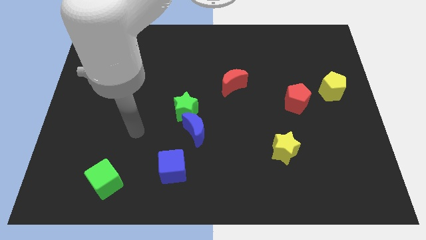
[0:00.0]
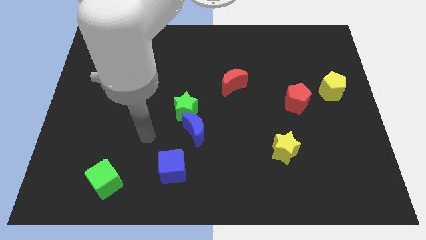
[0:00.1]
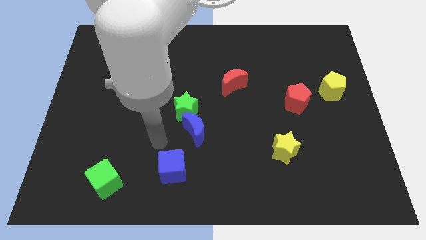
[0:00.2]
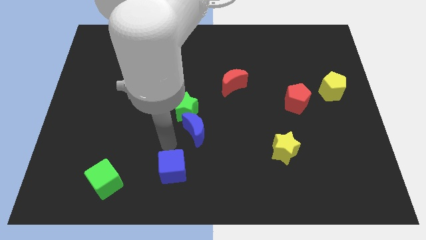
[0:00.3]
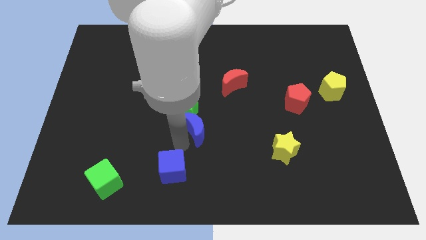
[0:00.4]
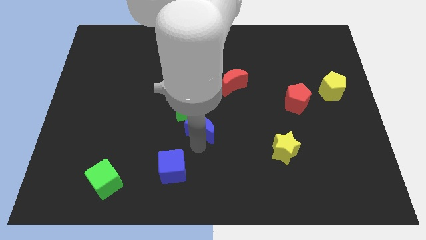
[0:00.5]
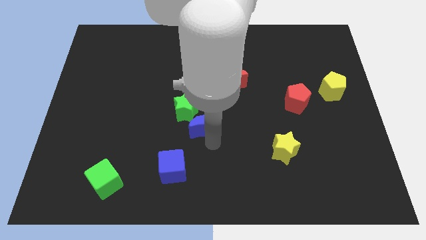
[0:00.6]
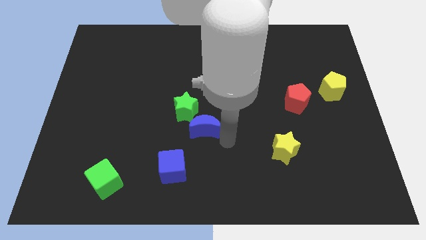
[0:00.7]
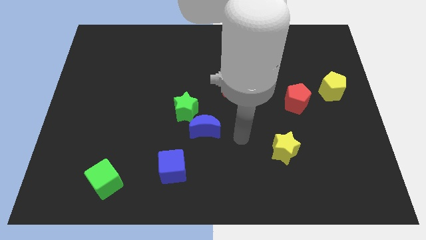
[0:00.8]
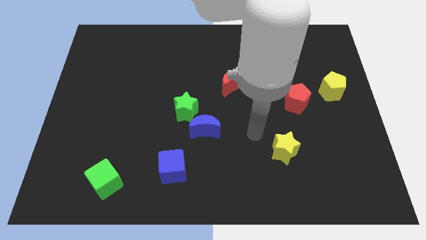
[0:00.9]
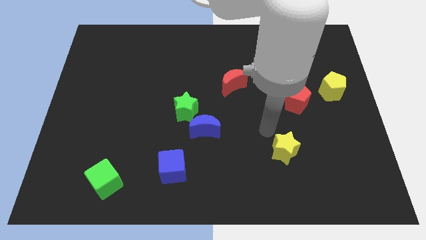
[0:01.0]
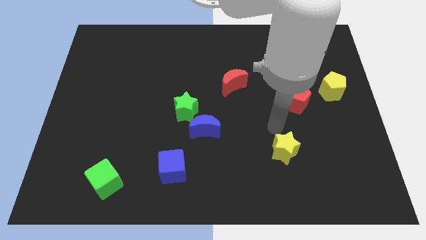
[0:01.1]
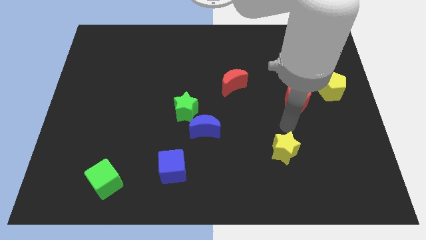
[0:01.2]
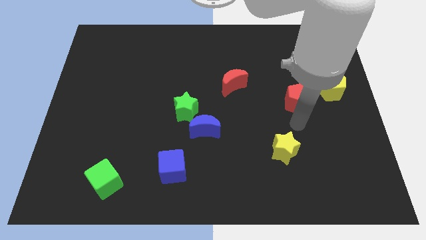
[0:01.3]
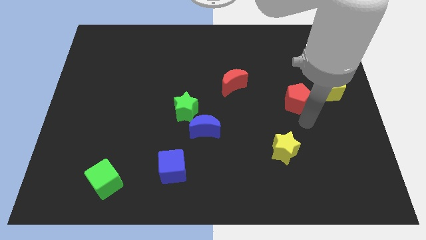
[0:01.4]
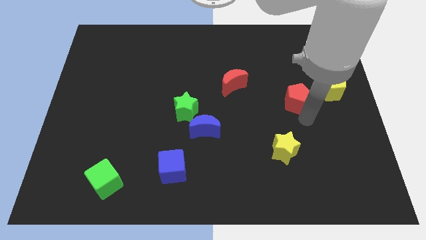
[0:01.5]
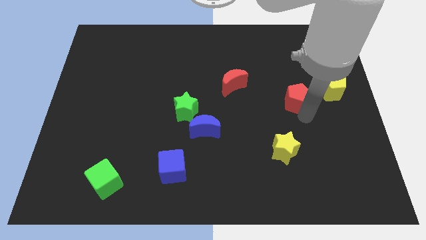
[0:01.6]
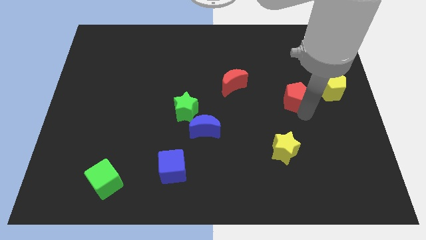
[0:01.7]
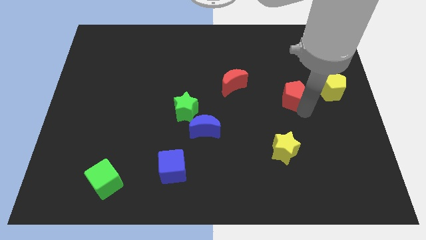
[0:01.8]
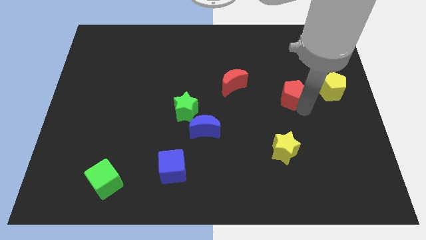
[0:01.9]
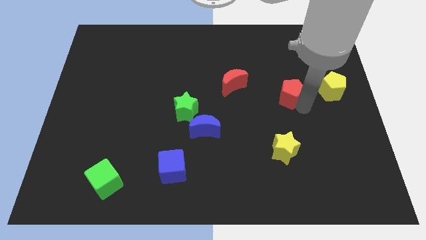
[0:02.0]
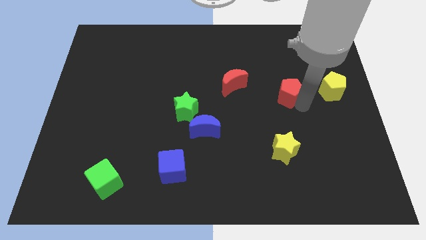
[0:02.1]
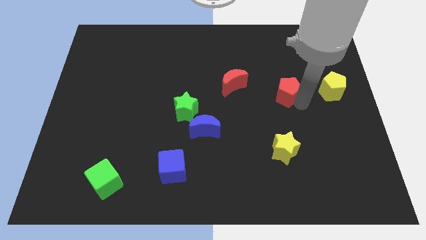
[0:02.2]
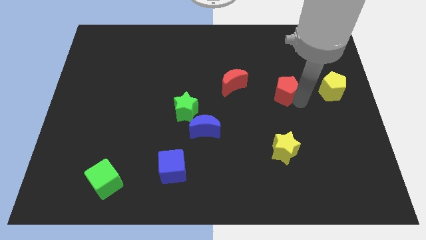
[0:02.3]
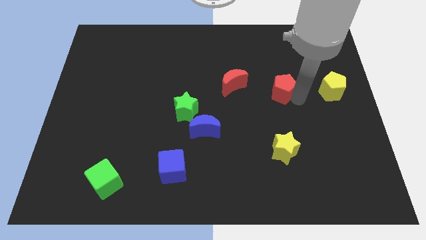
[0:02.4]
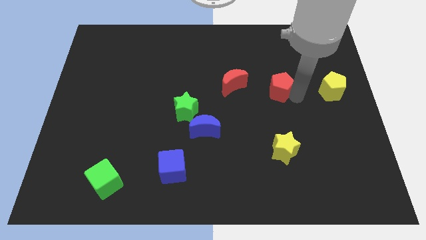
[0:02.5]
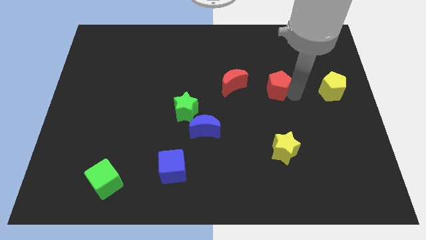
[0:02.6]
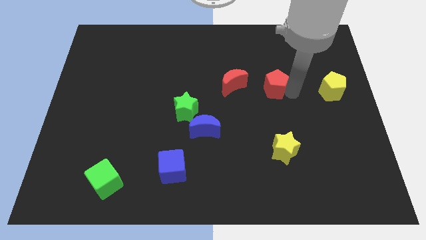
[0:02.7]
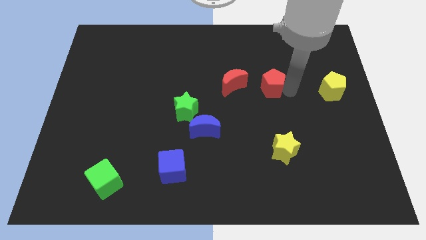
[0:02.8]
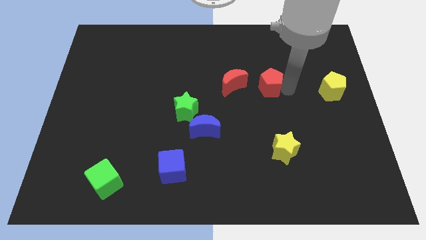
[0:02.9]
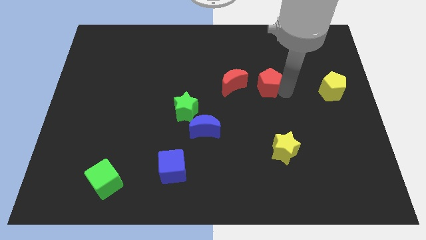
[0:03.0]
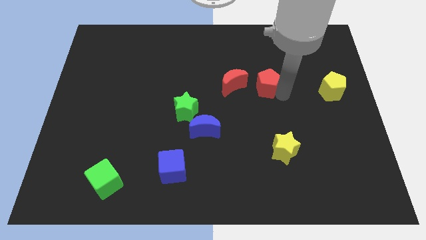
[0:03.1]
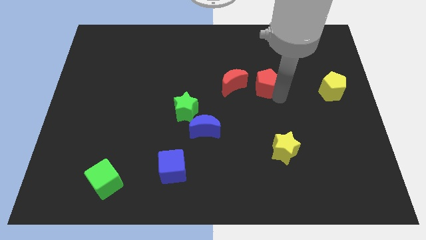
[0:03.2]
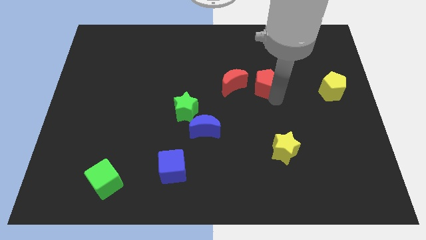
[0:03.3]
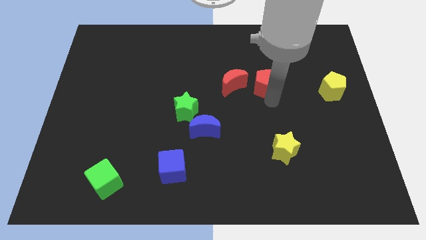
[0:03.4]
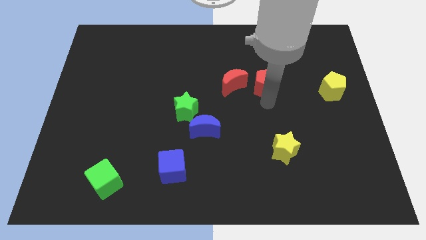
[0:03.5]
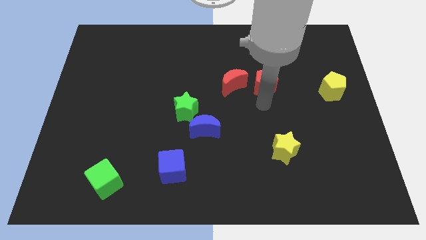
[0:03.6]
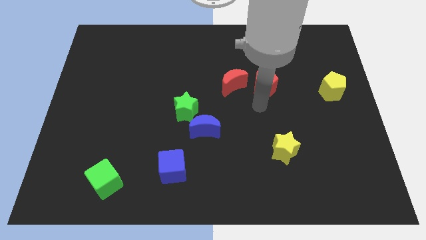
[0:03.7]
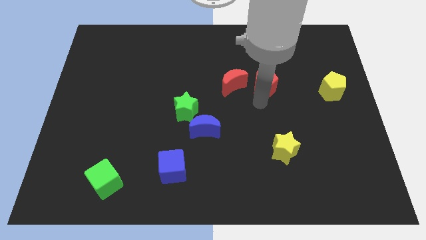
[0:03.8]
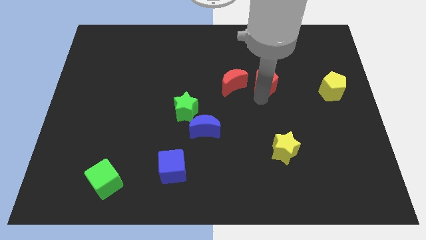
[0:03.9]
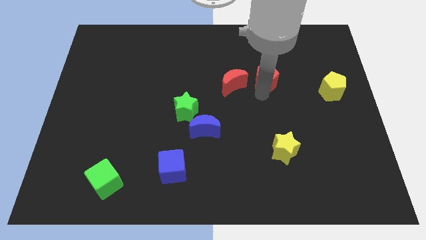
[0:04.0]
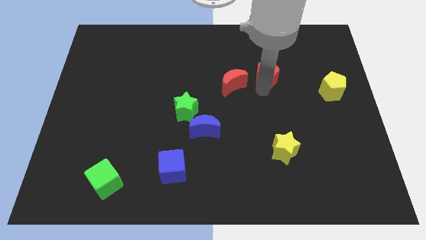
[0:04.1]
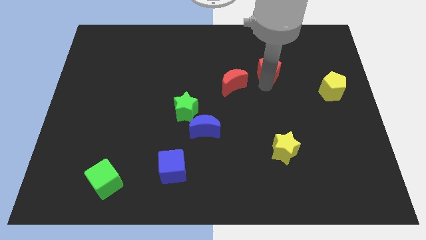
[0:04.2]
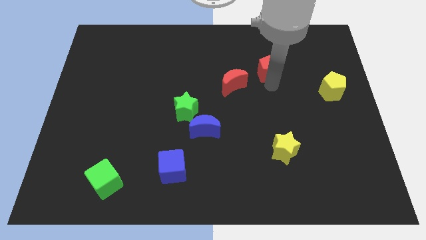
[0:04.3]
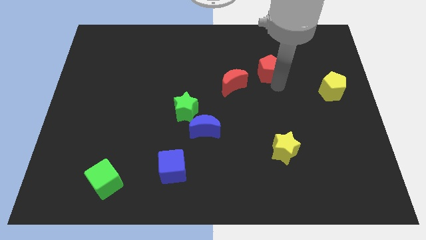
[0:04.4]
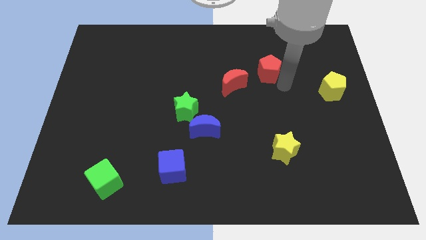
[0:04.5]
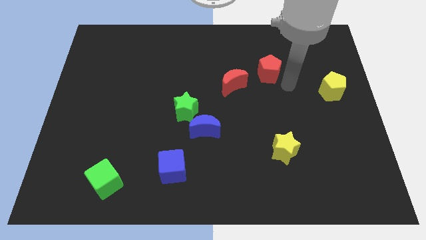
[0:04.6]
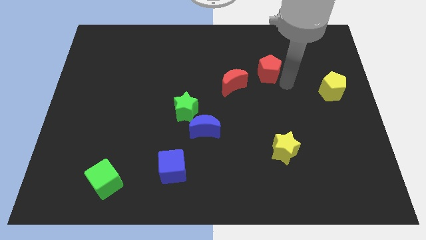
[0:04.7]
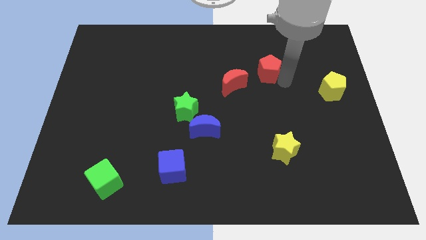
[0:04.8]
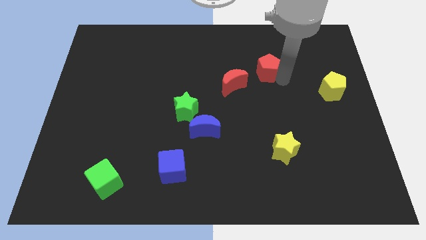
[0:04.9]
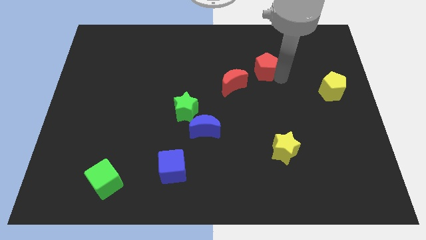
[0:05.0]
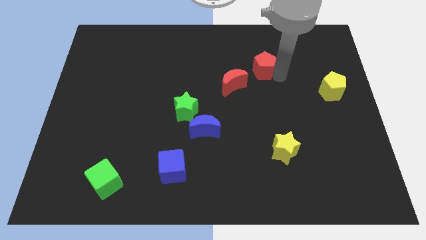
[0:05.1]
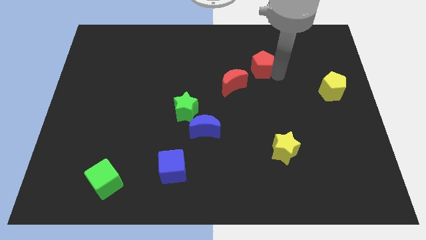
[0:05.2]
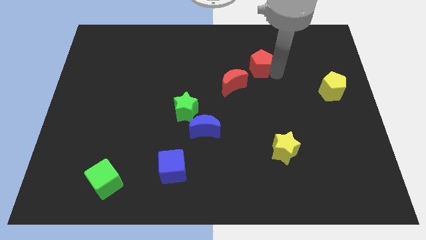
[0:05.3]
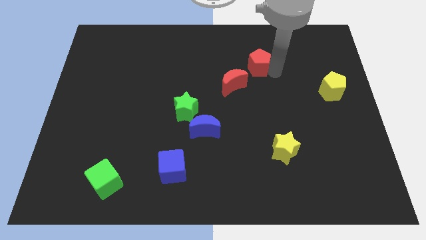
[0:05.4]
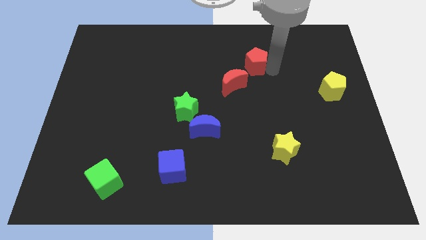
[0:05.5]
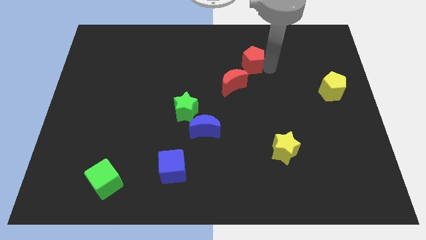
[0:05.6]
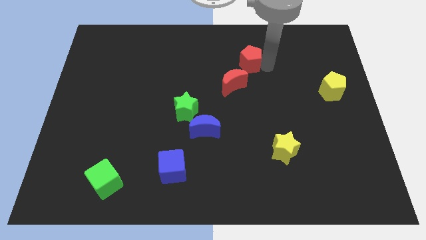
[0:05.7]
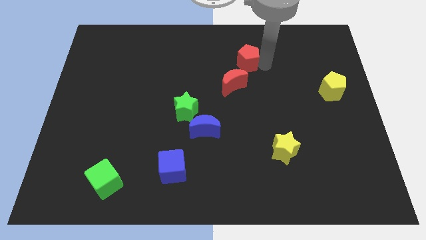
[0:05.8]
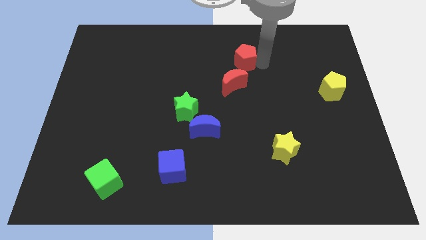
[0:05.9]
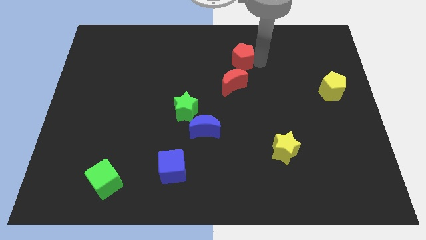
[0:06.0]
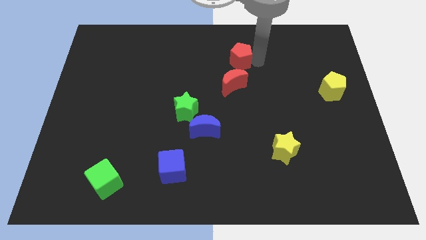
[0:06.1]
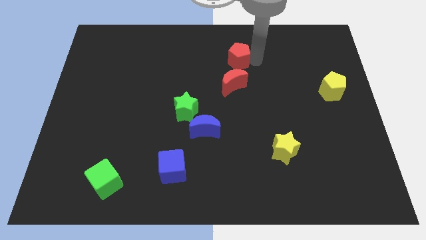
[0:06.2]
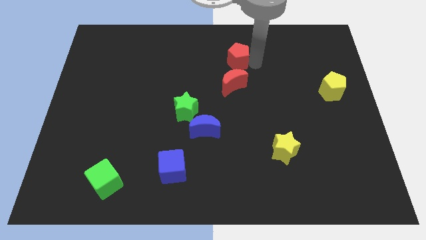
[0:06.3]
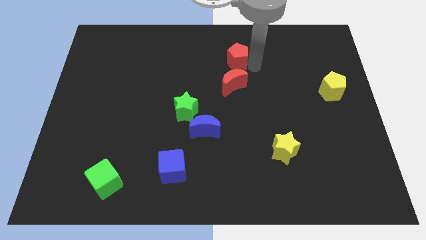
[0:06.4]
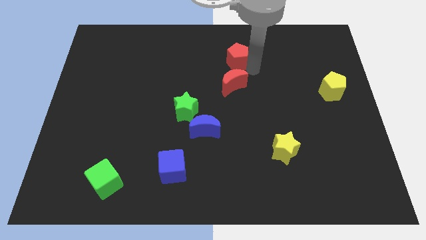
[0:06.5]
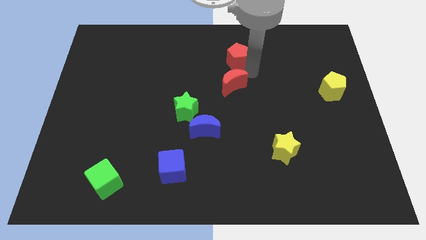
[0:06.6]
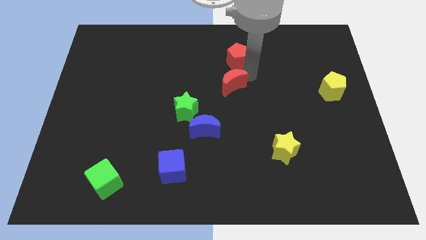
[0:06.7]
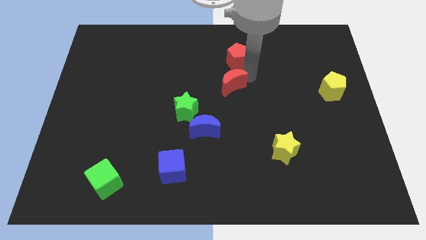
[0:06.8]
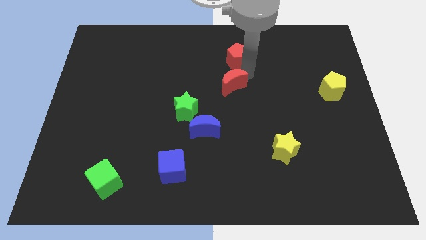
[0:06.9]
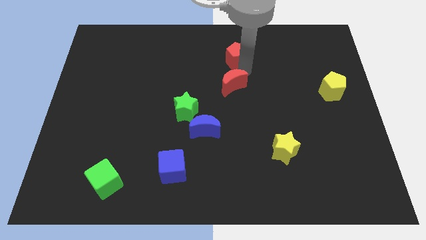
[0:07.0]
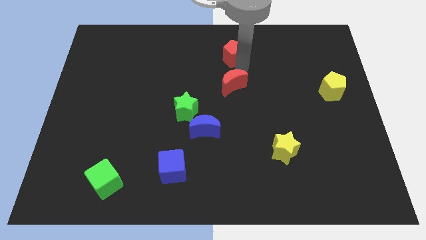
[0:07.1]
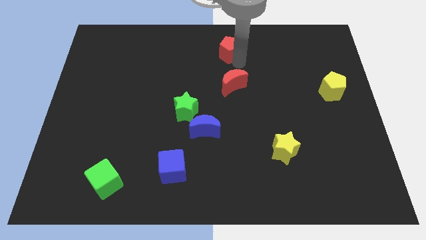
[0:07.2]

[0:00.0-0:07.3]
move the red pentagon to the top
